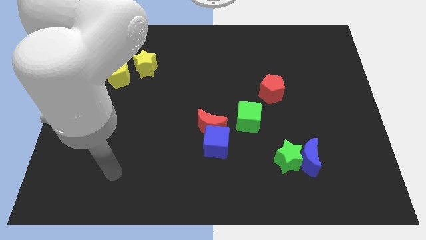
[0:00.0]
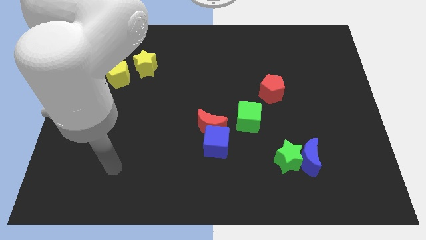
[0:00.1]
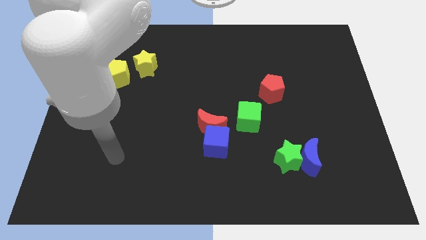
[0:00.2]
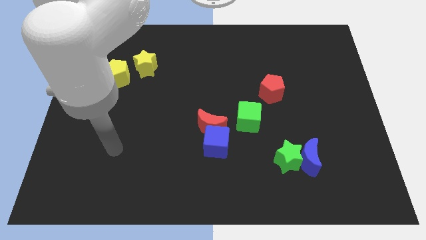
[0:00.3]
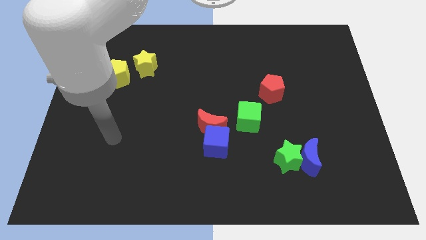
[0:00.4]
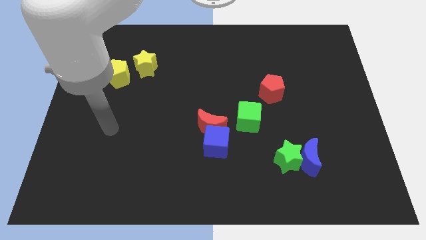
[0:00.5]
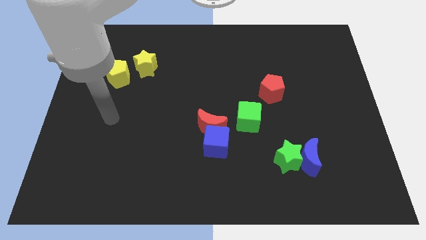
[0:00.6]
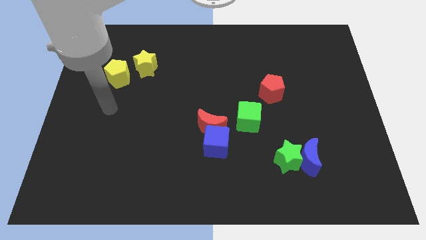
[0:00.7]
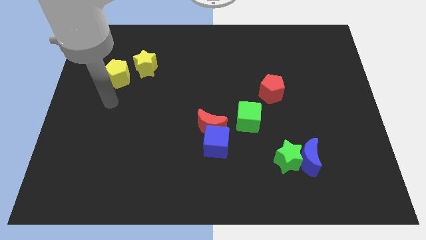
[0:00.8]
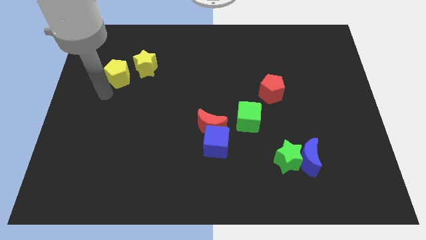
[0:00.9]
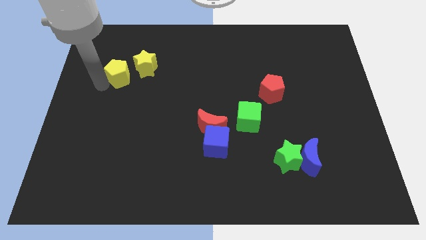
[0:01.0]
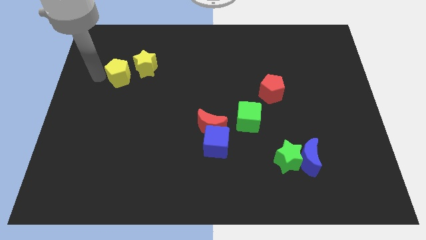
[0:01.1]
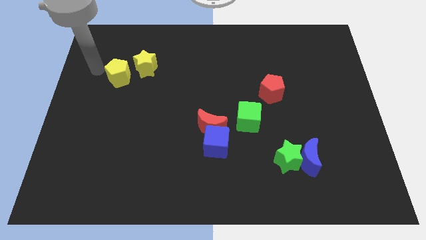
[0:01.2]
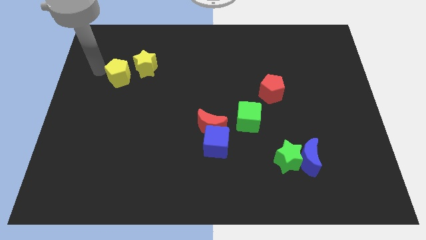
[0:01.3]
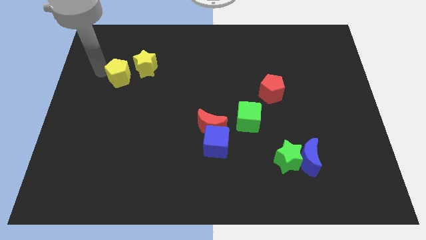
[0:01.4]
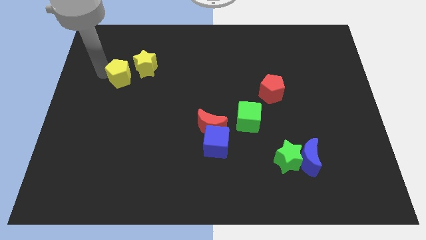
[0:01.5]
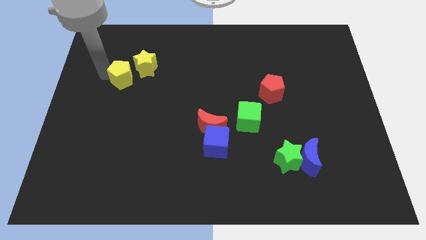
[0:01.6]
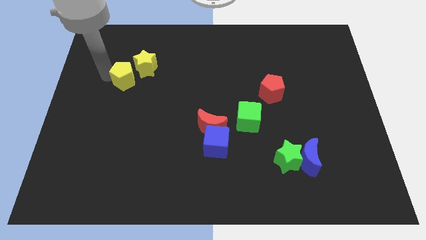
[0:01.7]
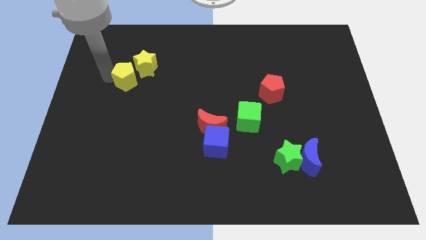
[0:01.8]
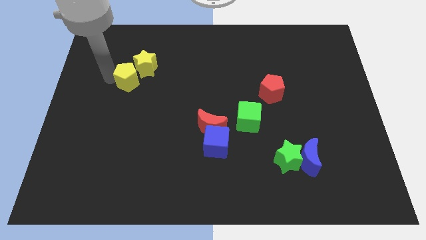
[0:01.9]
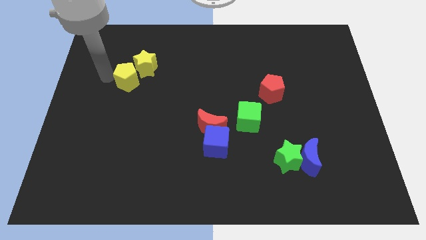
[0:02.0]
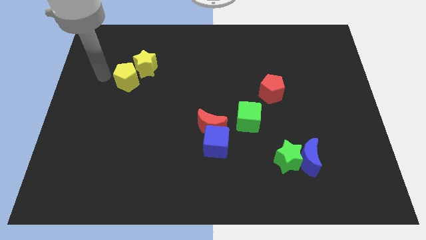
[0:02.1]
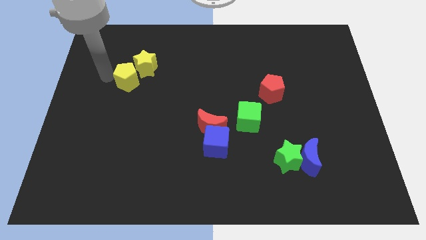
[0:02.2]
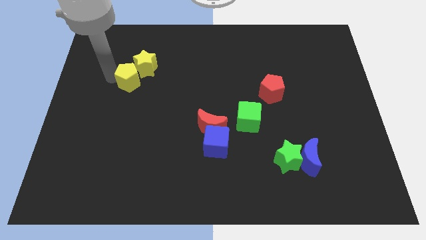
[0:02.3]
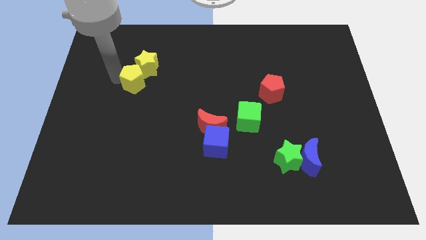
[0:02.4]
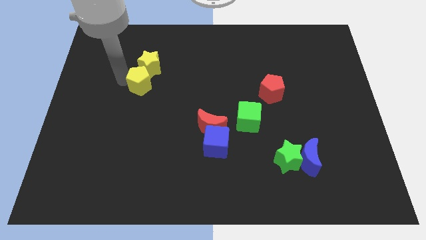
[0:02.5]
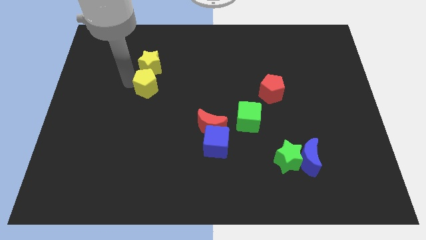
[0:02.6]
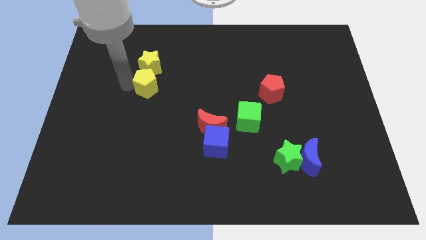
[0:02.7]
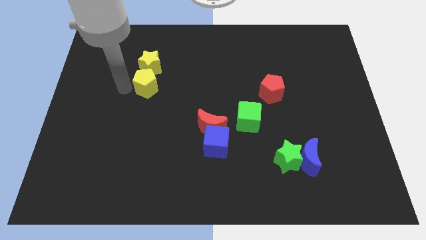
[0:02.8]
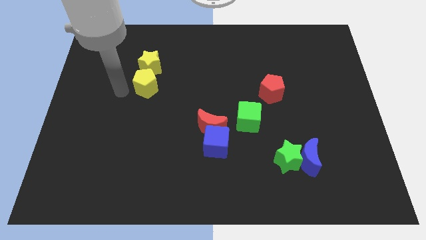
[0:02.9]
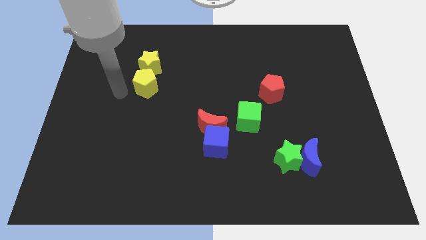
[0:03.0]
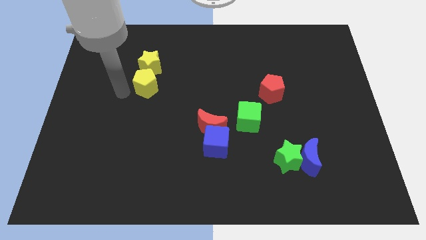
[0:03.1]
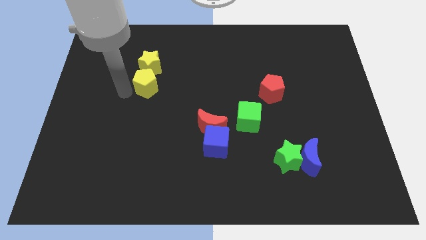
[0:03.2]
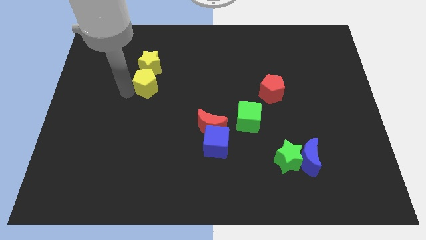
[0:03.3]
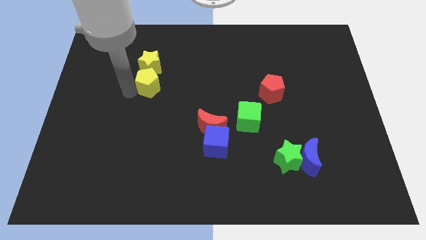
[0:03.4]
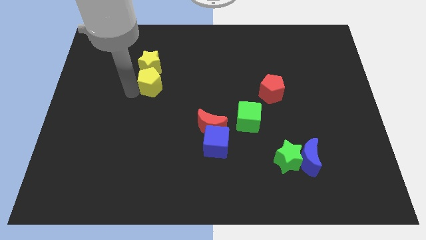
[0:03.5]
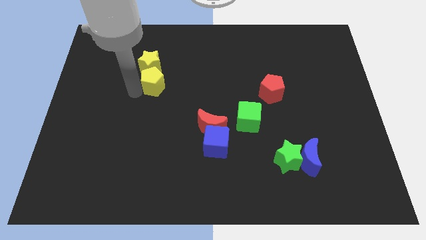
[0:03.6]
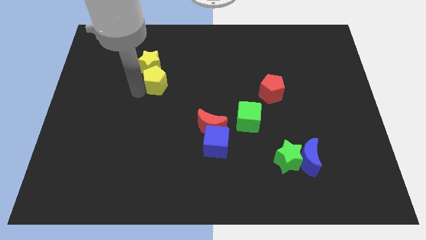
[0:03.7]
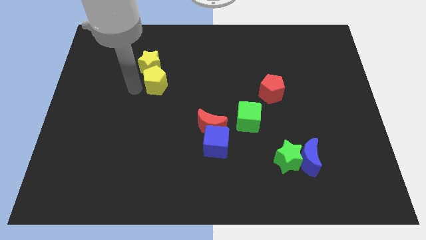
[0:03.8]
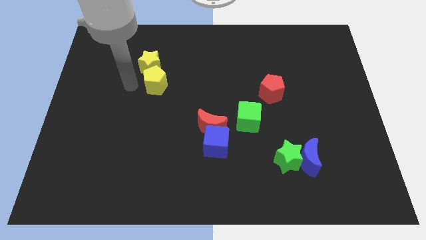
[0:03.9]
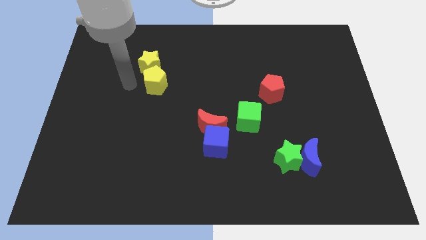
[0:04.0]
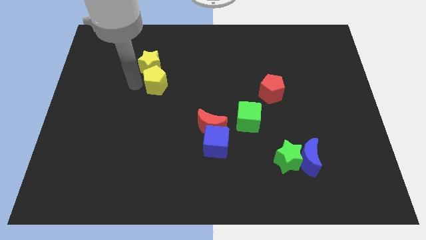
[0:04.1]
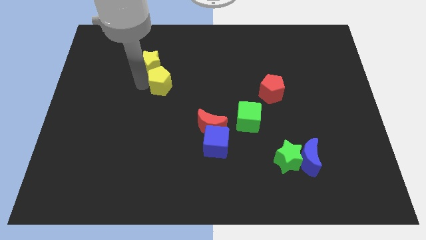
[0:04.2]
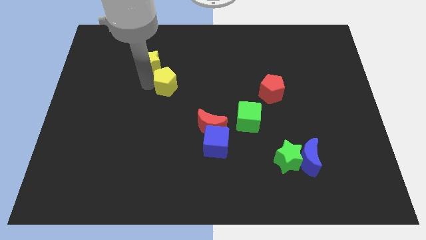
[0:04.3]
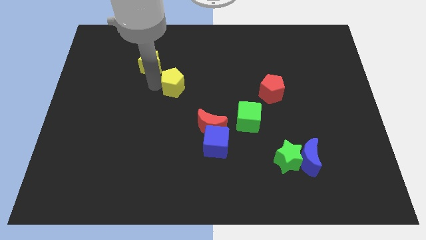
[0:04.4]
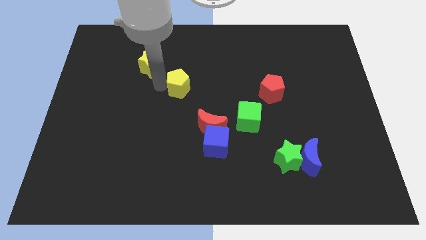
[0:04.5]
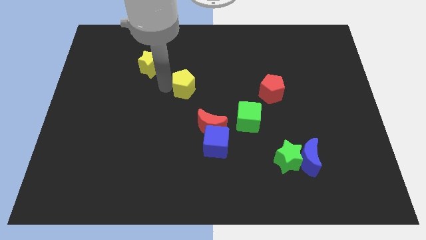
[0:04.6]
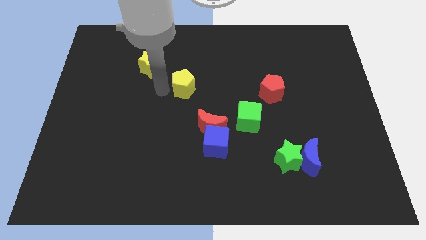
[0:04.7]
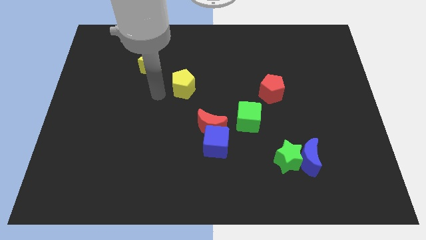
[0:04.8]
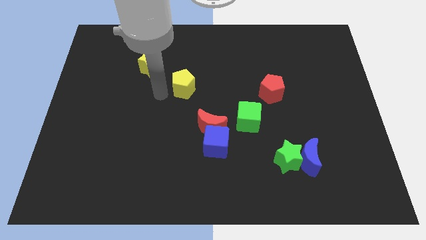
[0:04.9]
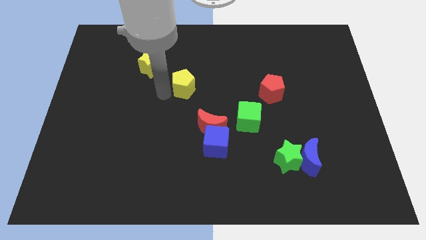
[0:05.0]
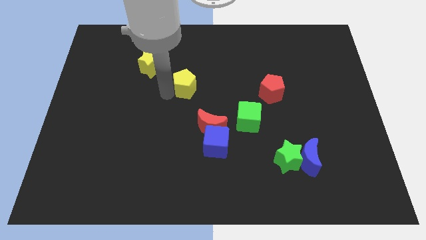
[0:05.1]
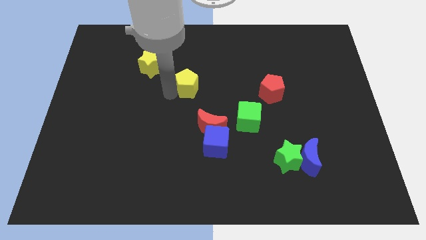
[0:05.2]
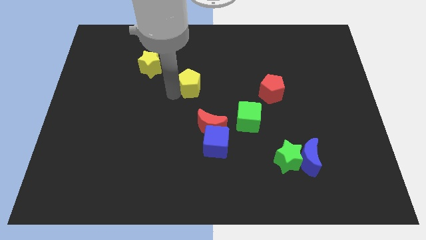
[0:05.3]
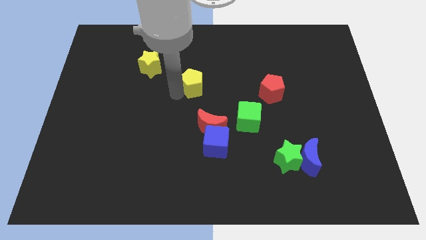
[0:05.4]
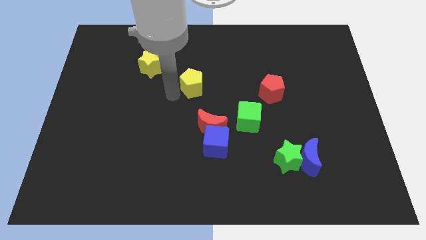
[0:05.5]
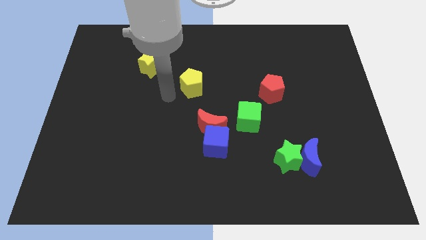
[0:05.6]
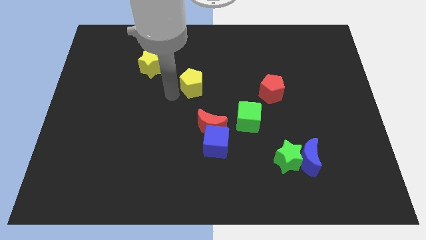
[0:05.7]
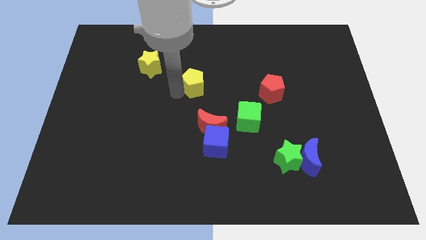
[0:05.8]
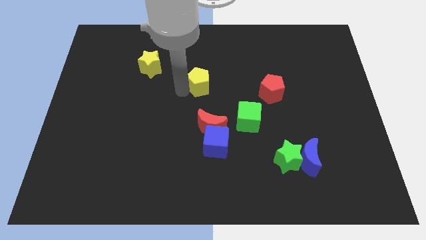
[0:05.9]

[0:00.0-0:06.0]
slide the yellow pentagon to the right

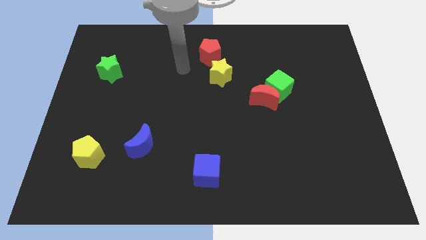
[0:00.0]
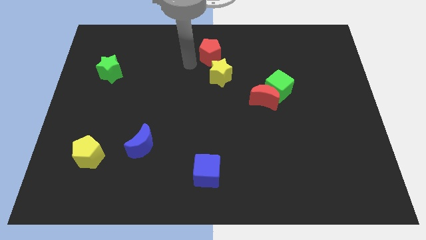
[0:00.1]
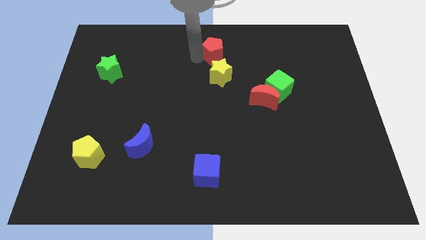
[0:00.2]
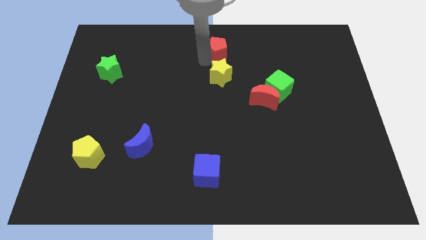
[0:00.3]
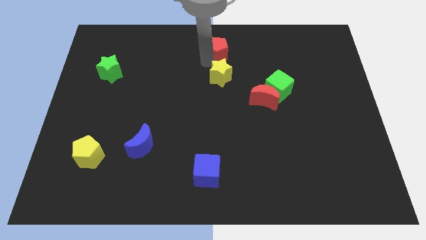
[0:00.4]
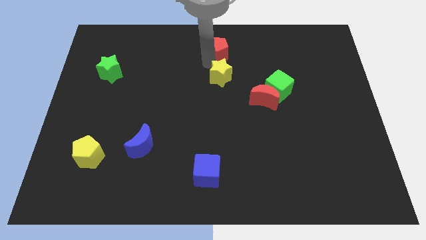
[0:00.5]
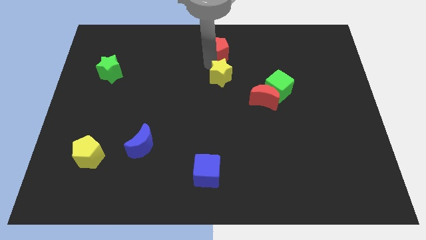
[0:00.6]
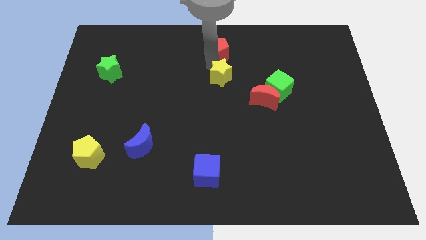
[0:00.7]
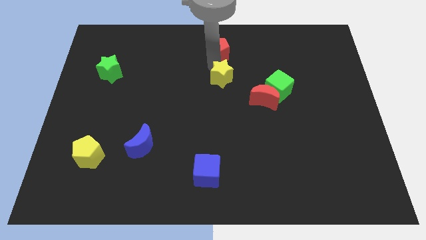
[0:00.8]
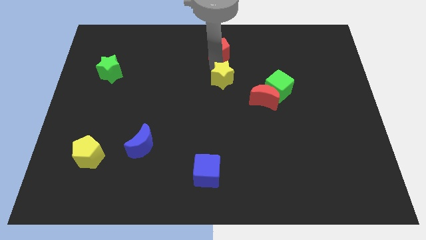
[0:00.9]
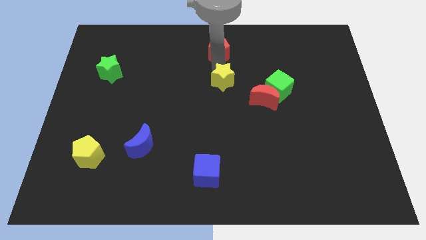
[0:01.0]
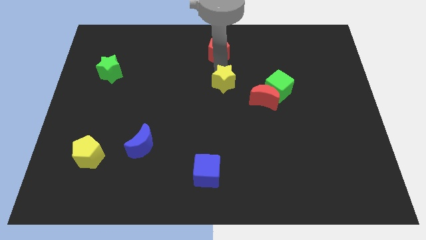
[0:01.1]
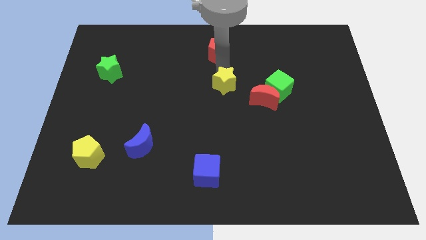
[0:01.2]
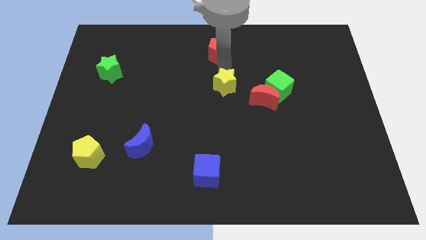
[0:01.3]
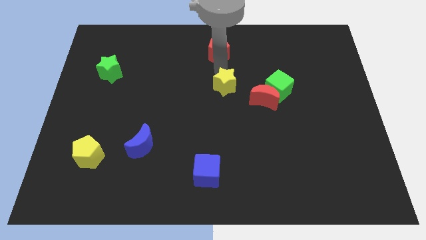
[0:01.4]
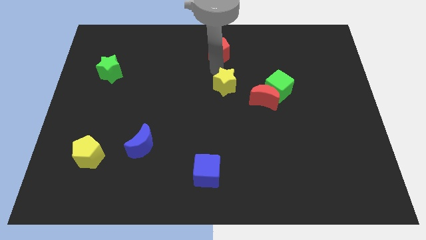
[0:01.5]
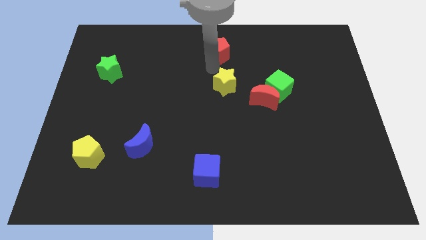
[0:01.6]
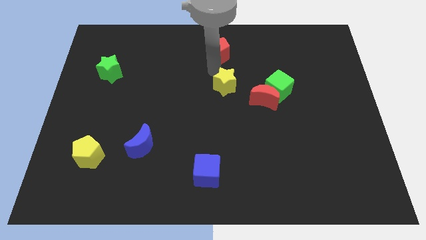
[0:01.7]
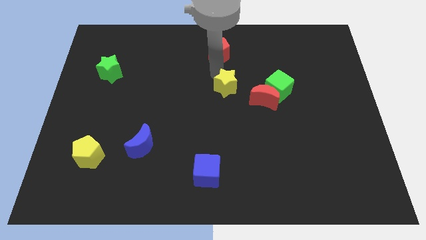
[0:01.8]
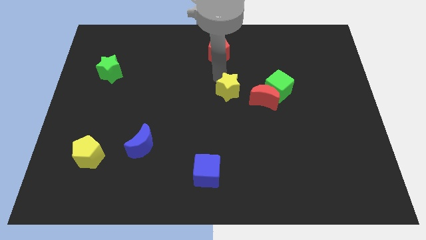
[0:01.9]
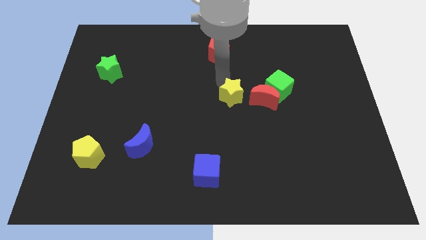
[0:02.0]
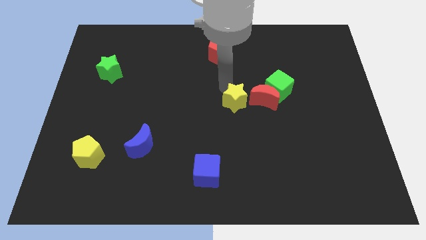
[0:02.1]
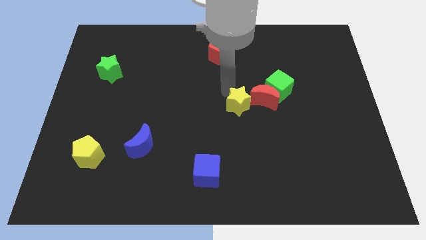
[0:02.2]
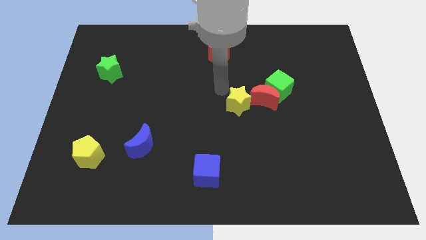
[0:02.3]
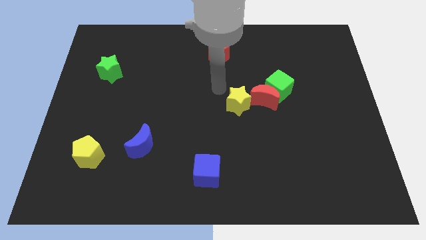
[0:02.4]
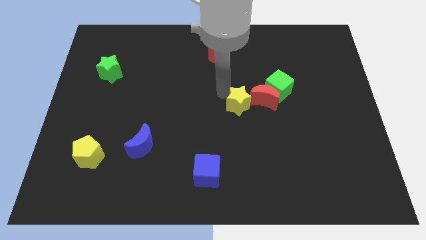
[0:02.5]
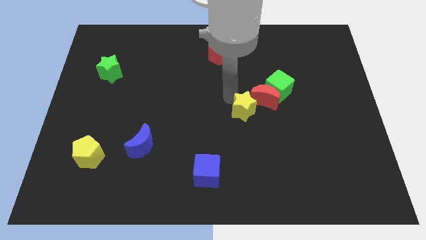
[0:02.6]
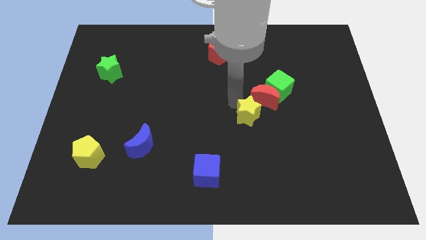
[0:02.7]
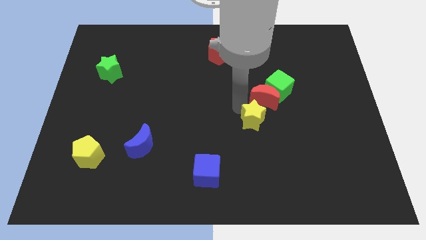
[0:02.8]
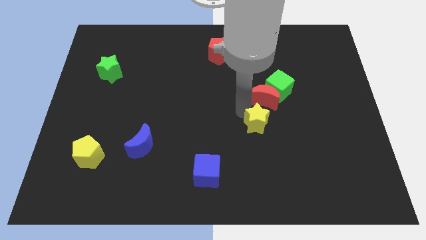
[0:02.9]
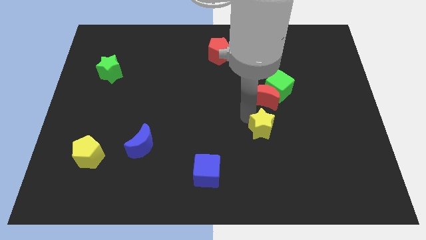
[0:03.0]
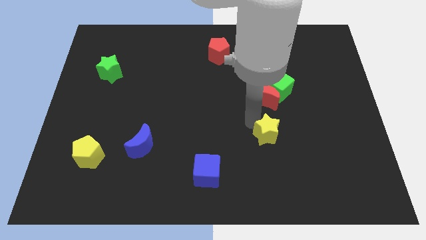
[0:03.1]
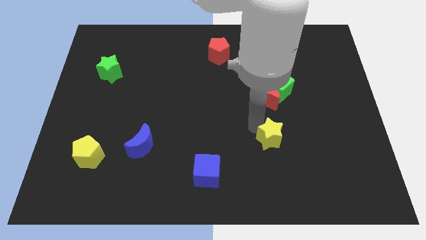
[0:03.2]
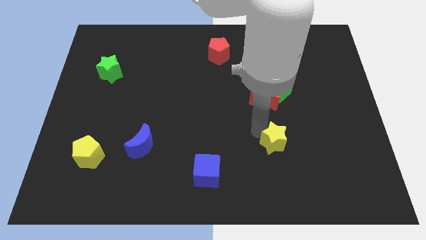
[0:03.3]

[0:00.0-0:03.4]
move the yellow star down and right diagonally
